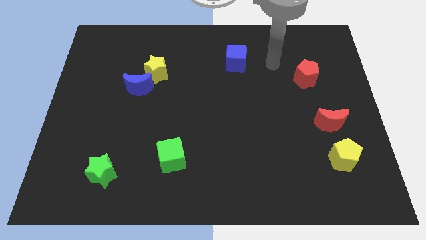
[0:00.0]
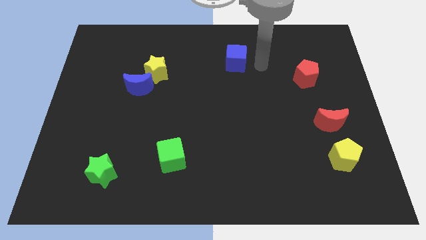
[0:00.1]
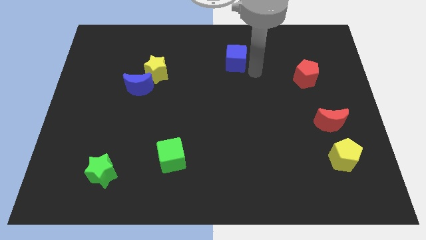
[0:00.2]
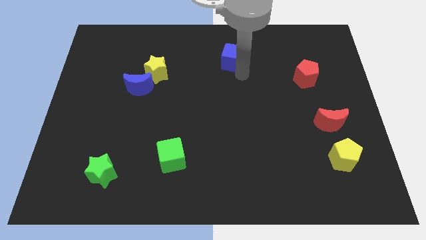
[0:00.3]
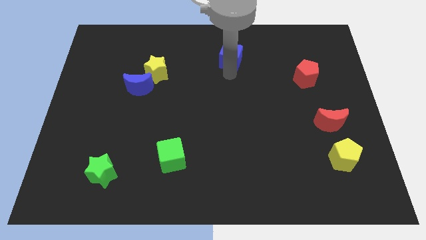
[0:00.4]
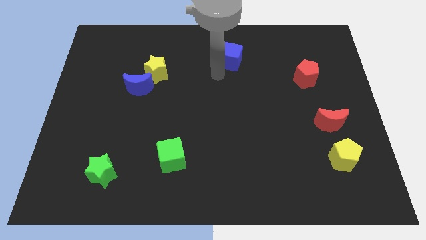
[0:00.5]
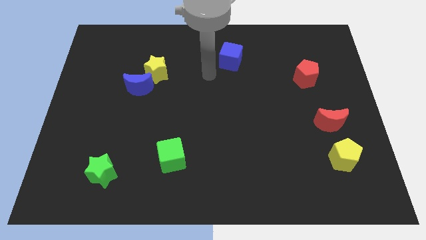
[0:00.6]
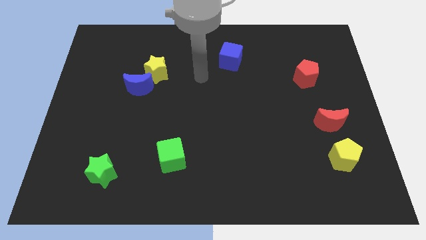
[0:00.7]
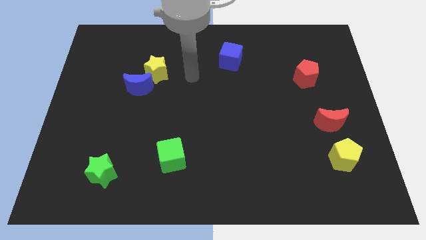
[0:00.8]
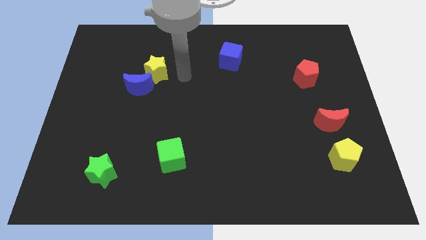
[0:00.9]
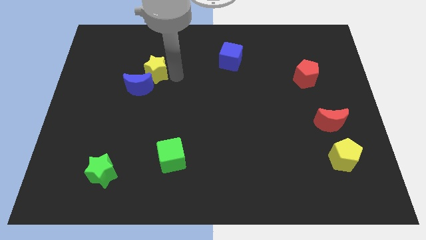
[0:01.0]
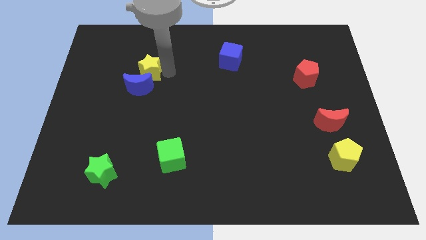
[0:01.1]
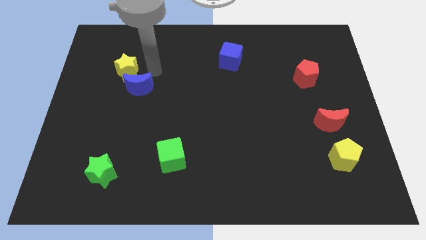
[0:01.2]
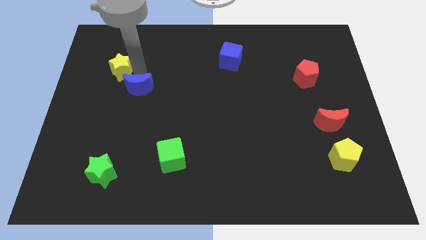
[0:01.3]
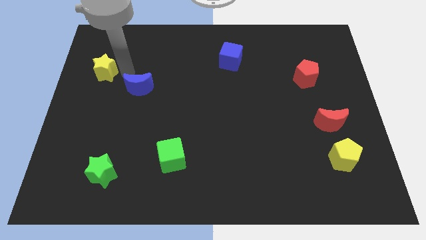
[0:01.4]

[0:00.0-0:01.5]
separate the blue moon from the yellow star

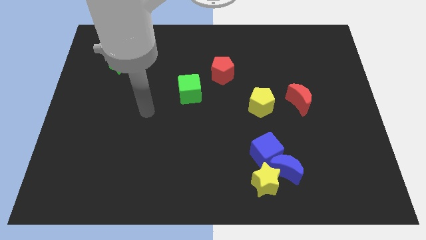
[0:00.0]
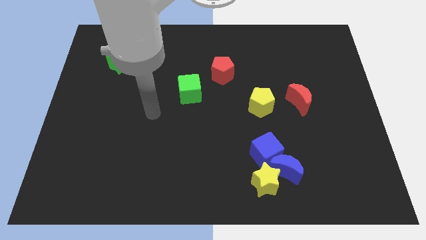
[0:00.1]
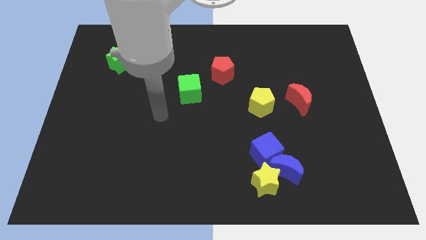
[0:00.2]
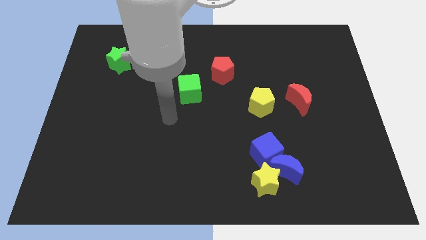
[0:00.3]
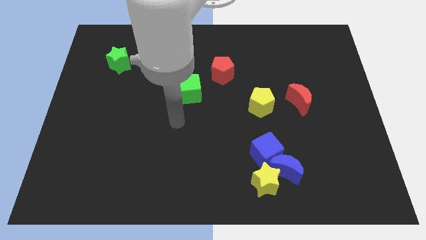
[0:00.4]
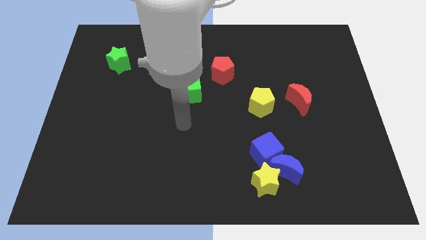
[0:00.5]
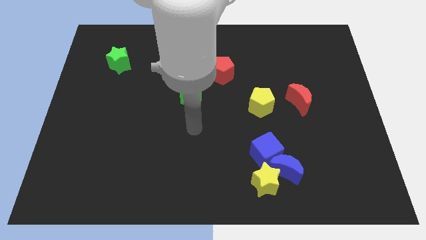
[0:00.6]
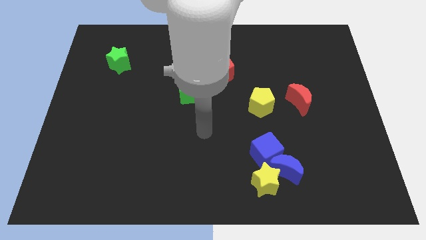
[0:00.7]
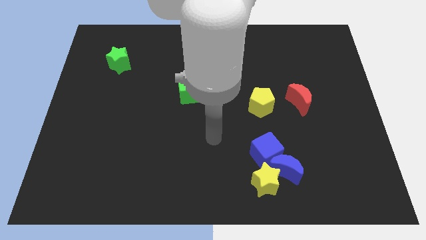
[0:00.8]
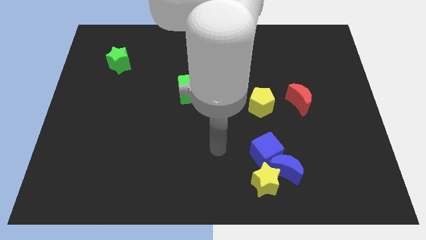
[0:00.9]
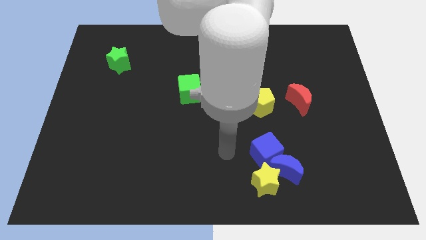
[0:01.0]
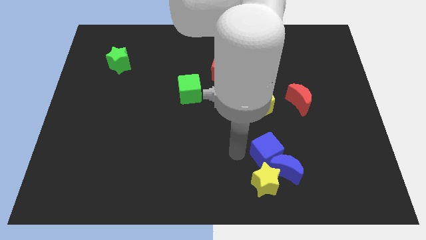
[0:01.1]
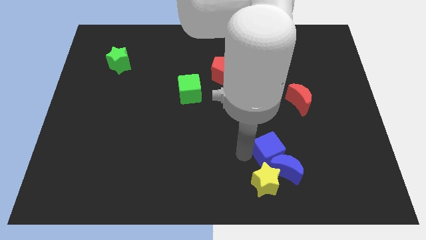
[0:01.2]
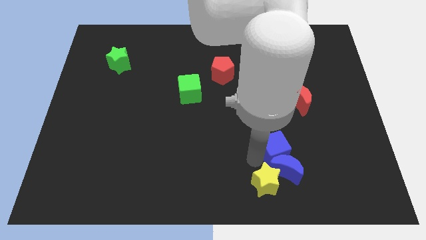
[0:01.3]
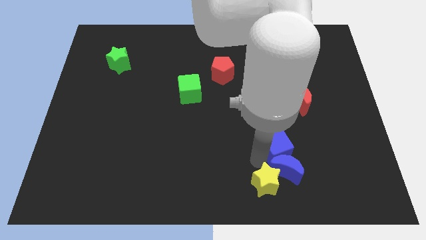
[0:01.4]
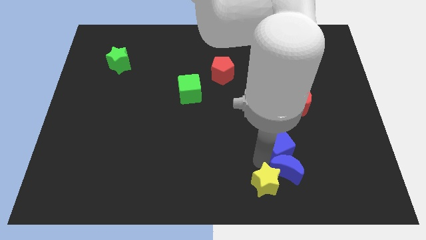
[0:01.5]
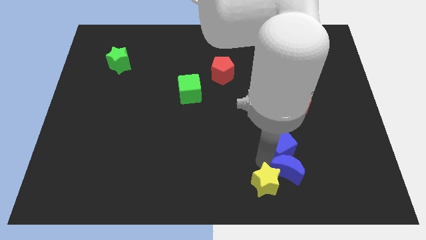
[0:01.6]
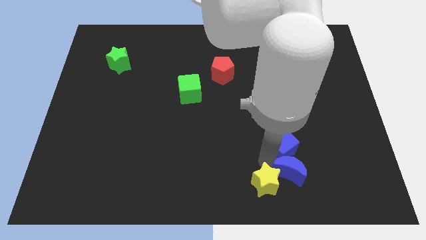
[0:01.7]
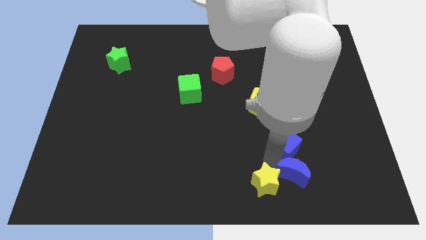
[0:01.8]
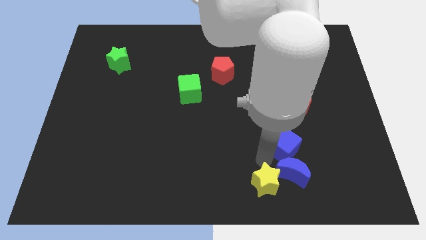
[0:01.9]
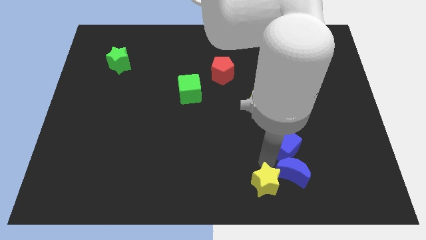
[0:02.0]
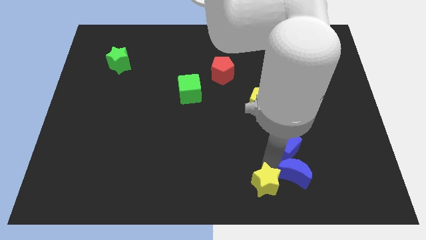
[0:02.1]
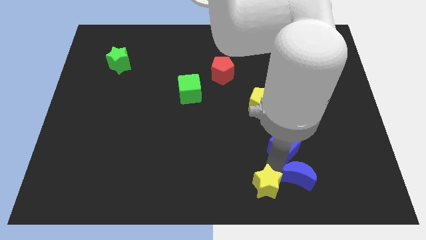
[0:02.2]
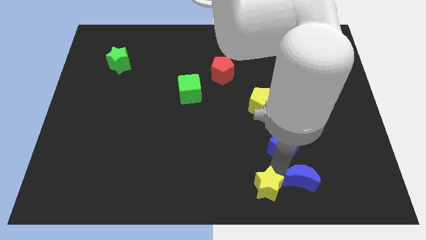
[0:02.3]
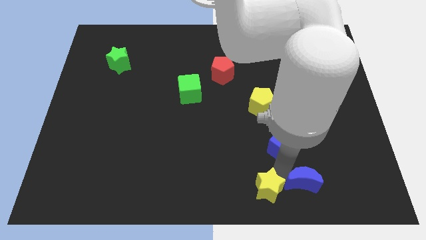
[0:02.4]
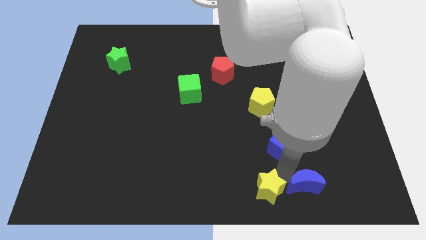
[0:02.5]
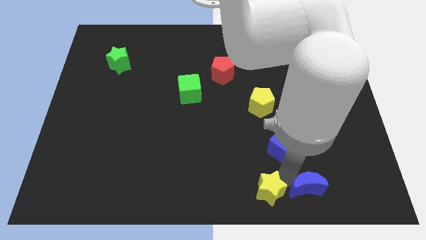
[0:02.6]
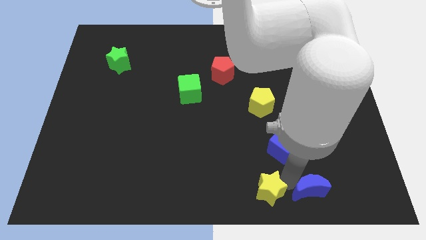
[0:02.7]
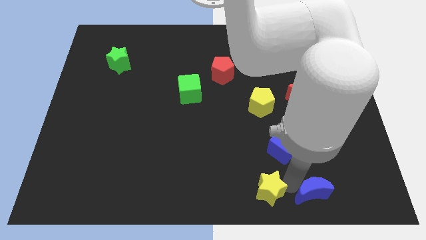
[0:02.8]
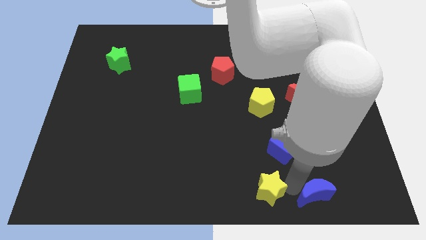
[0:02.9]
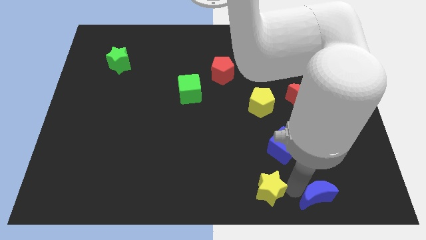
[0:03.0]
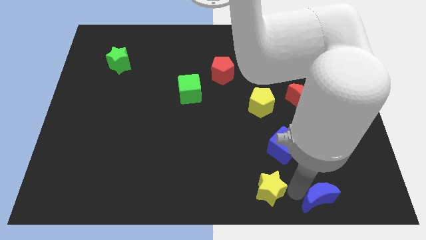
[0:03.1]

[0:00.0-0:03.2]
move the blue moon away from the yellow star and blue cube

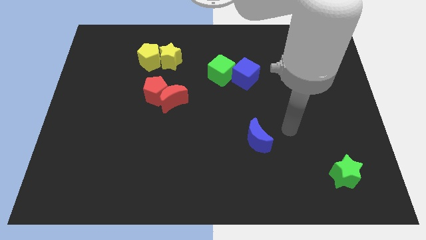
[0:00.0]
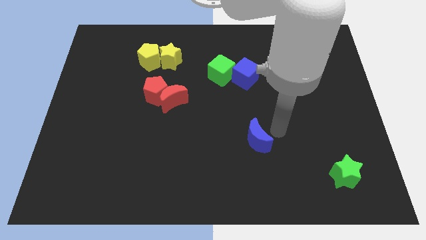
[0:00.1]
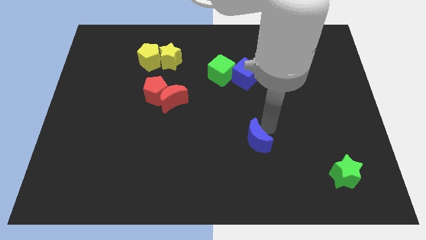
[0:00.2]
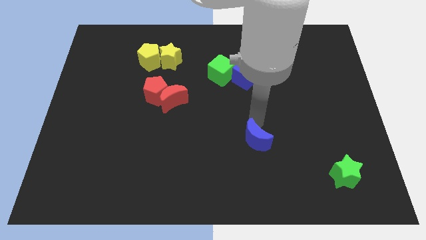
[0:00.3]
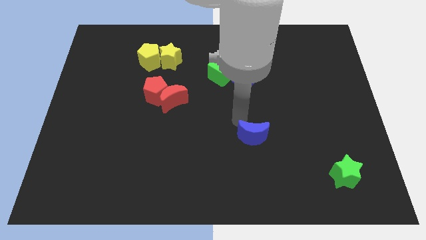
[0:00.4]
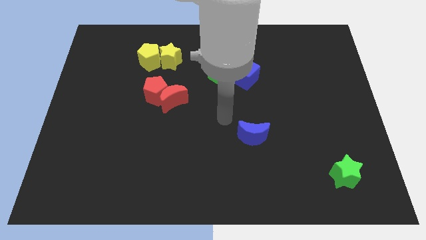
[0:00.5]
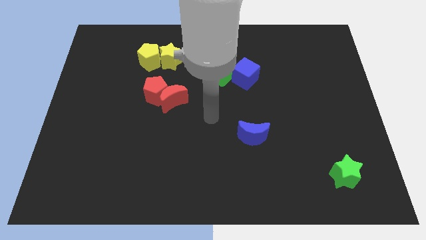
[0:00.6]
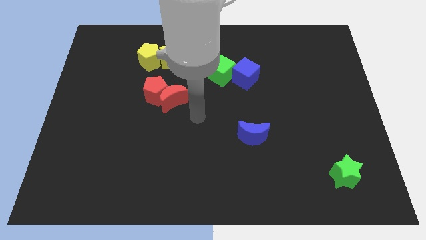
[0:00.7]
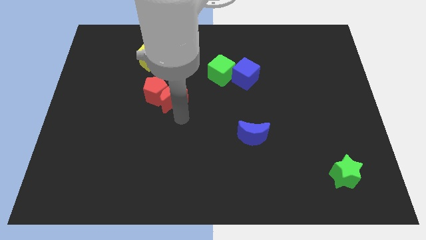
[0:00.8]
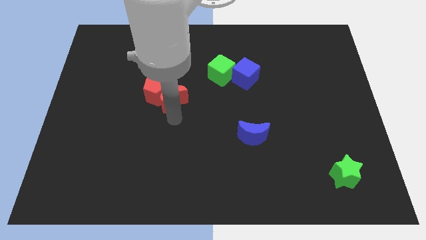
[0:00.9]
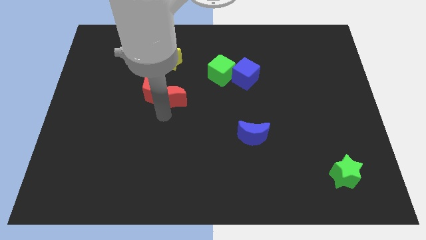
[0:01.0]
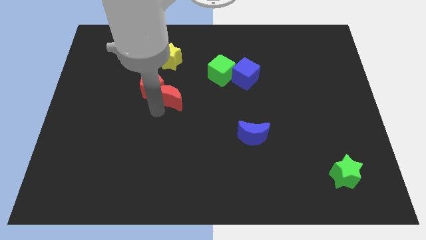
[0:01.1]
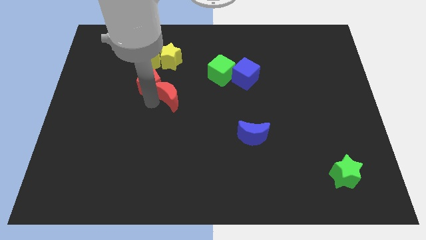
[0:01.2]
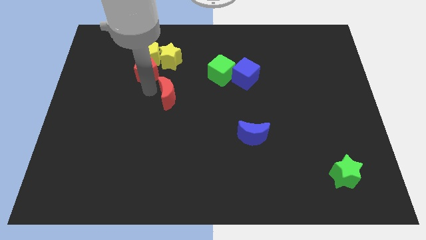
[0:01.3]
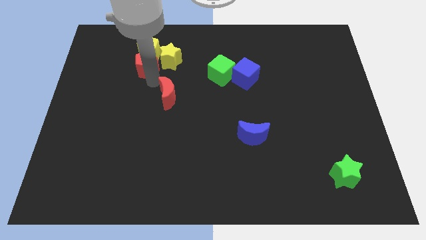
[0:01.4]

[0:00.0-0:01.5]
pull the red moon apart from the red pentagon

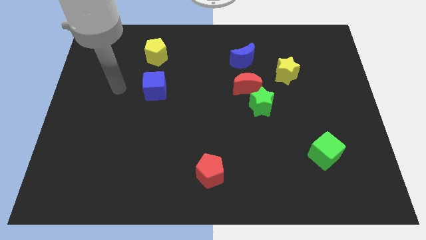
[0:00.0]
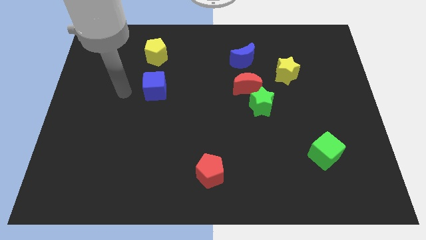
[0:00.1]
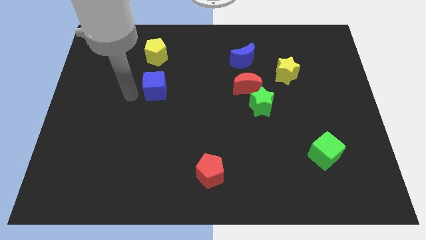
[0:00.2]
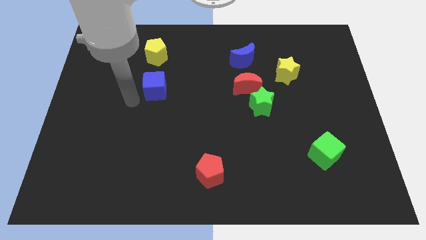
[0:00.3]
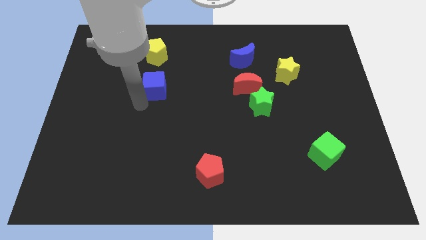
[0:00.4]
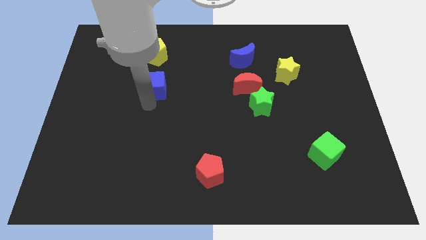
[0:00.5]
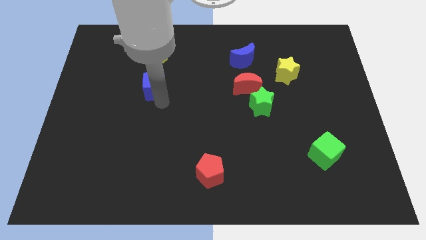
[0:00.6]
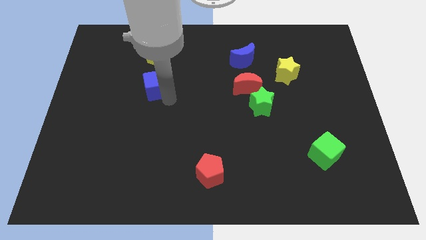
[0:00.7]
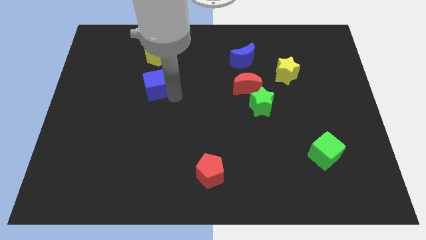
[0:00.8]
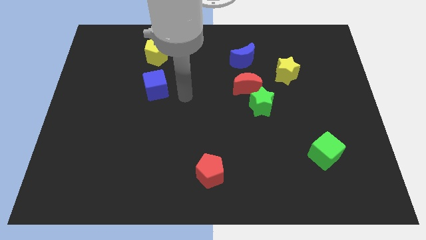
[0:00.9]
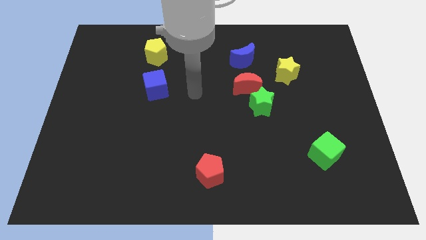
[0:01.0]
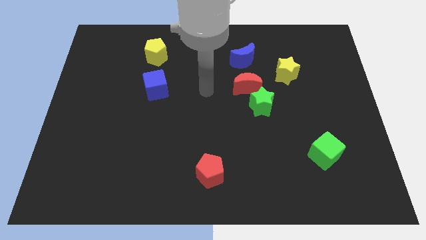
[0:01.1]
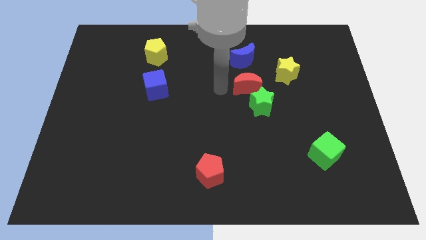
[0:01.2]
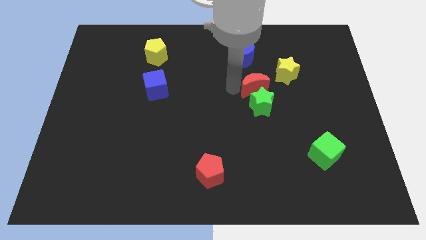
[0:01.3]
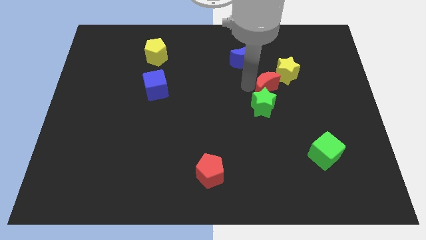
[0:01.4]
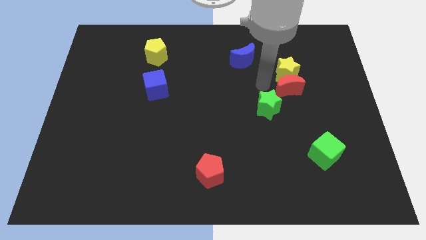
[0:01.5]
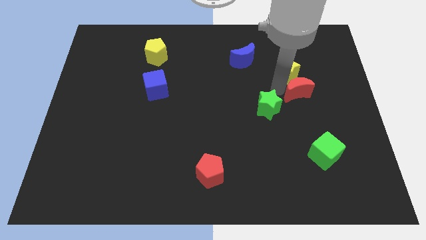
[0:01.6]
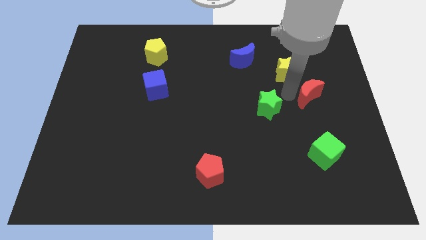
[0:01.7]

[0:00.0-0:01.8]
separate the green star from the red moon

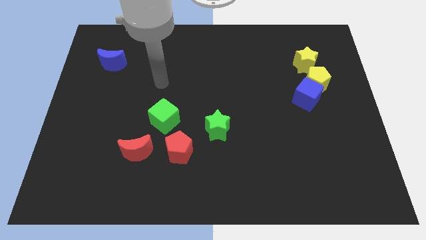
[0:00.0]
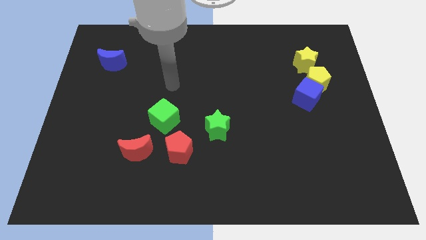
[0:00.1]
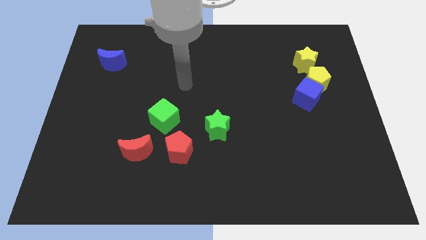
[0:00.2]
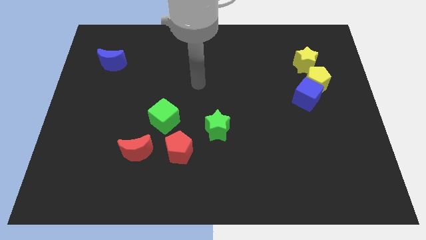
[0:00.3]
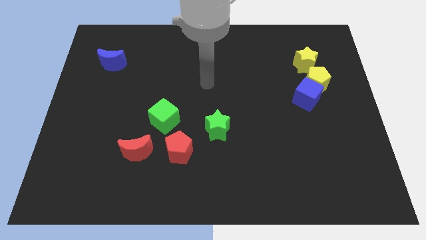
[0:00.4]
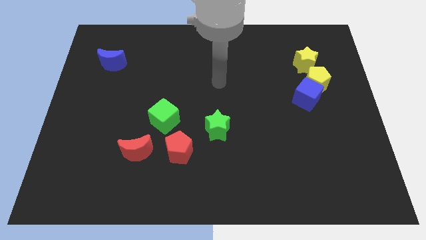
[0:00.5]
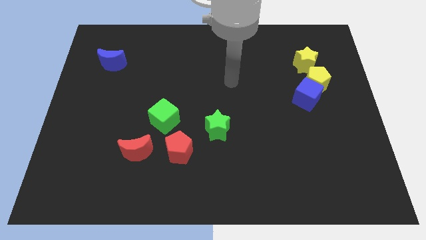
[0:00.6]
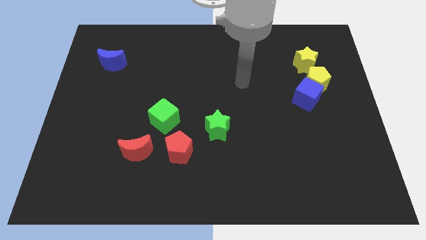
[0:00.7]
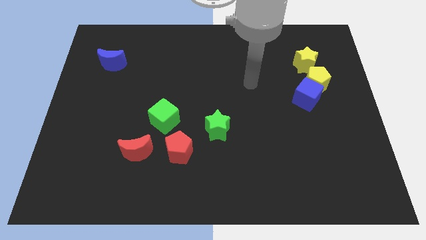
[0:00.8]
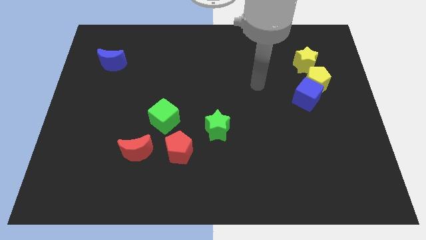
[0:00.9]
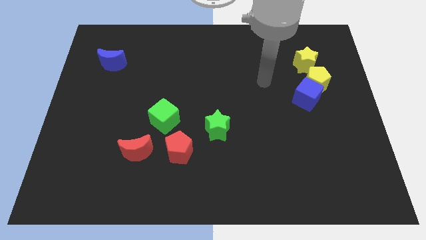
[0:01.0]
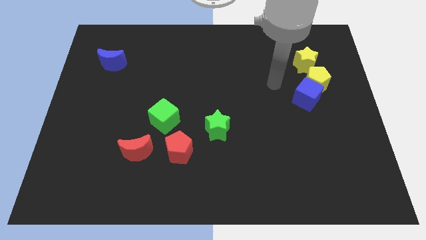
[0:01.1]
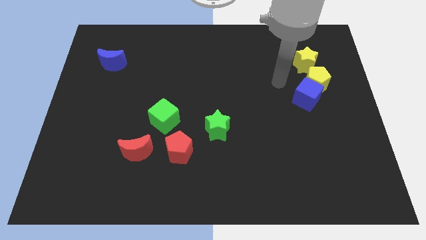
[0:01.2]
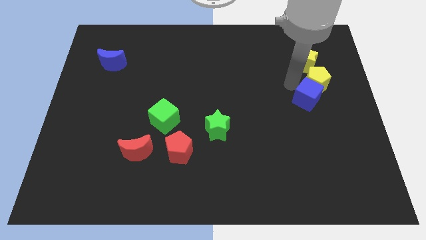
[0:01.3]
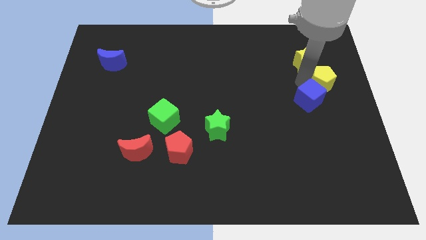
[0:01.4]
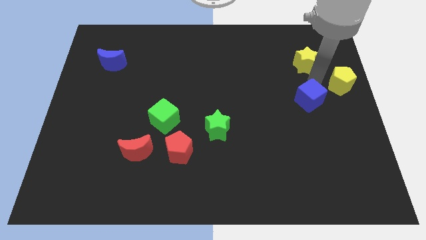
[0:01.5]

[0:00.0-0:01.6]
separate the blue cube from the yellow pentagon
